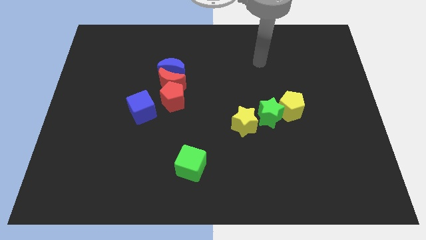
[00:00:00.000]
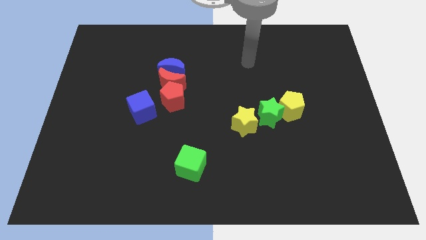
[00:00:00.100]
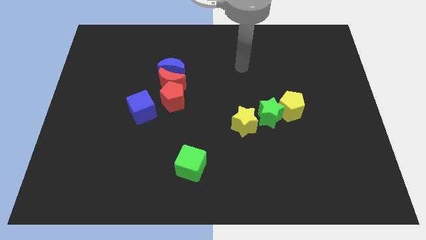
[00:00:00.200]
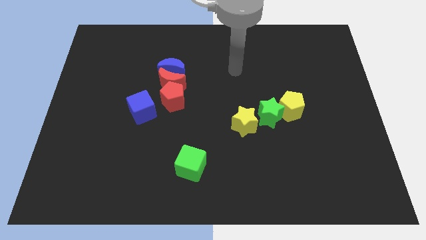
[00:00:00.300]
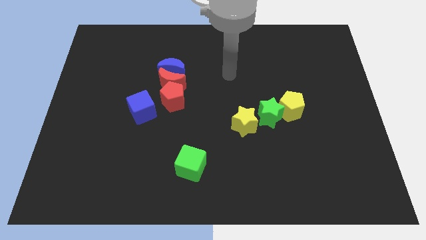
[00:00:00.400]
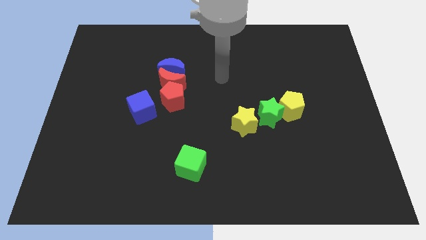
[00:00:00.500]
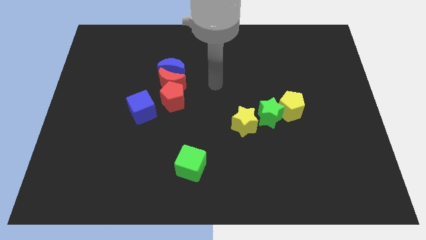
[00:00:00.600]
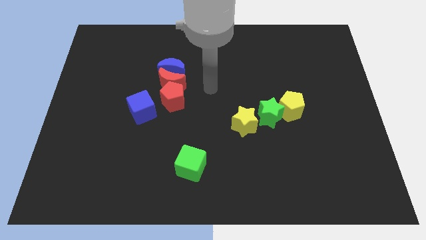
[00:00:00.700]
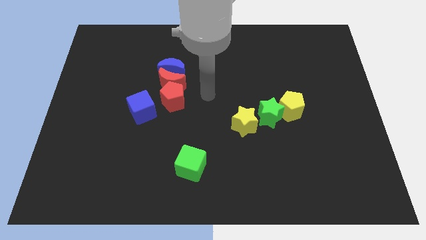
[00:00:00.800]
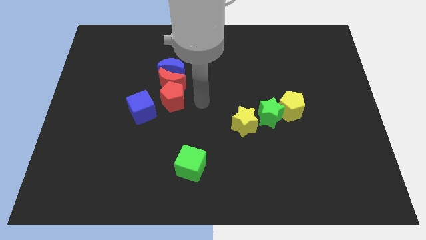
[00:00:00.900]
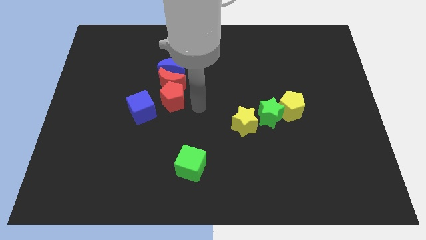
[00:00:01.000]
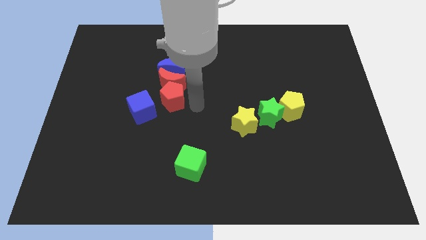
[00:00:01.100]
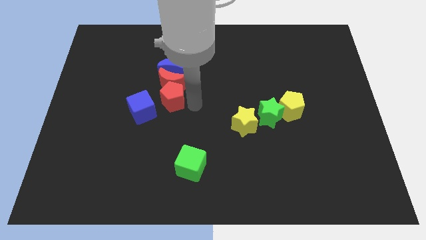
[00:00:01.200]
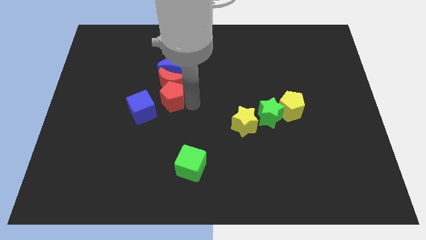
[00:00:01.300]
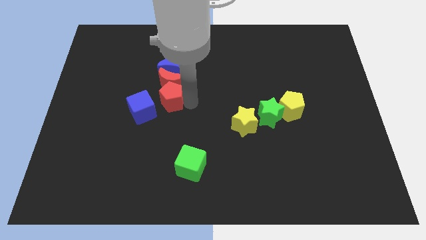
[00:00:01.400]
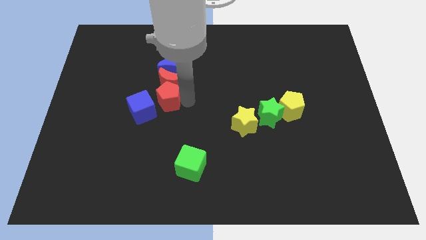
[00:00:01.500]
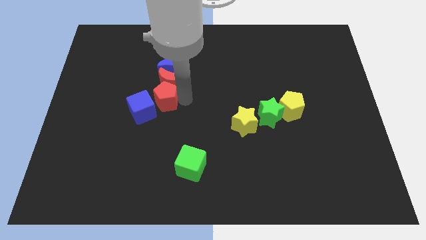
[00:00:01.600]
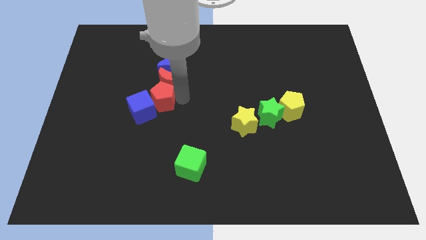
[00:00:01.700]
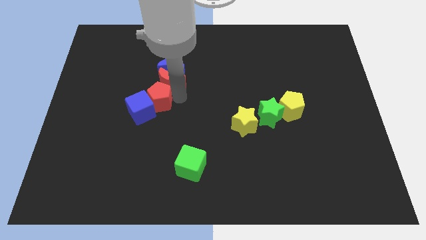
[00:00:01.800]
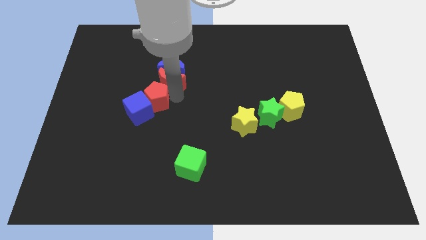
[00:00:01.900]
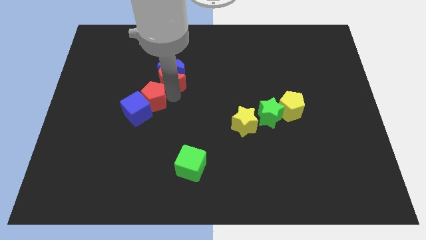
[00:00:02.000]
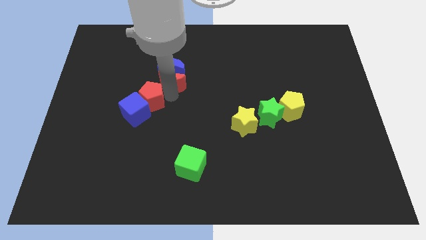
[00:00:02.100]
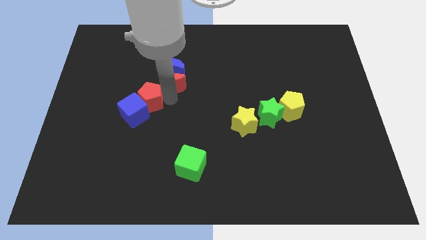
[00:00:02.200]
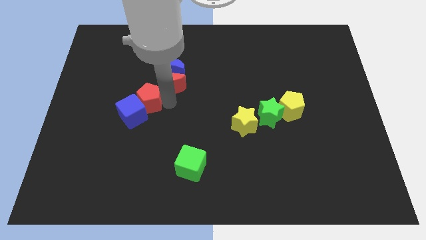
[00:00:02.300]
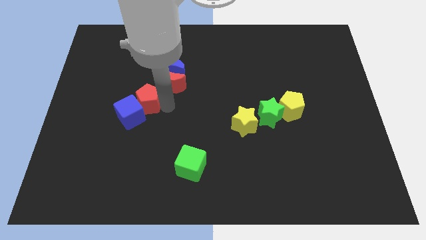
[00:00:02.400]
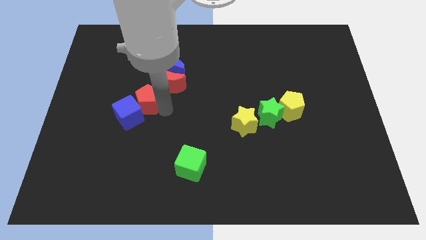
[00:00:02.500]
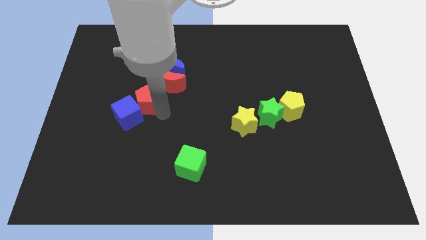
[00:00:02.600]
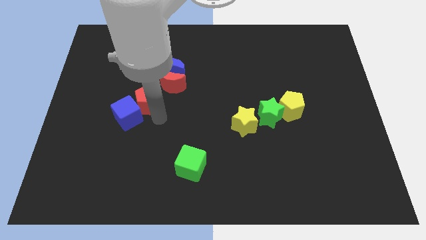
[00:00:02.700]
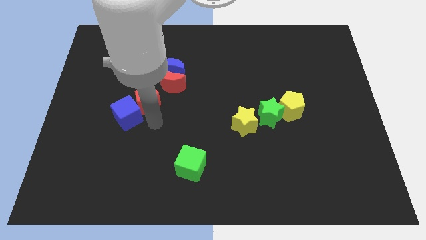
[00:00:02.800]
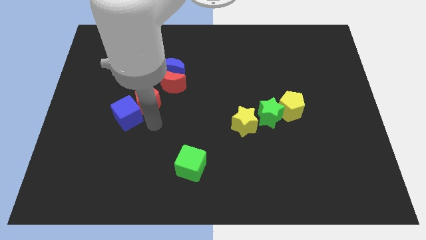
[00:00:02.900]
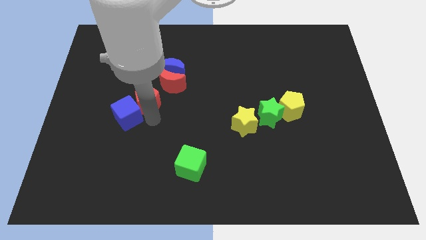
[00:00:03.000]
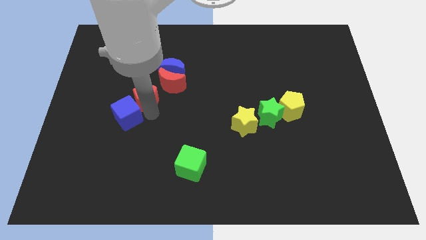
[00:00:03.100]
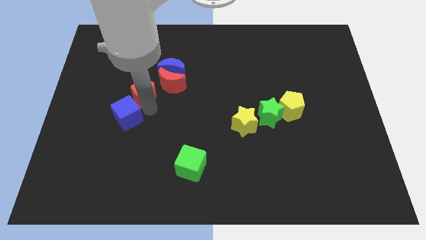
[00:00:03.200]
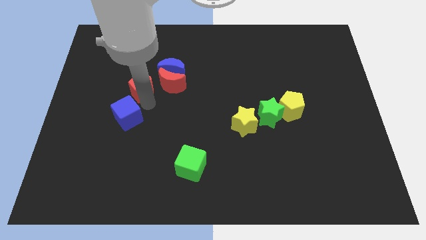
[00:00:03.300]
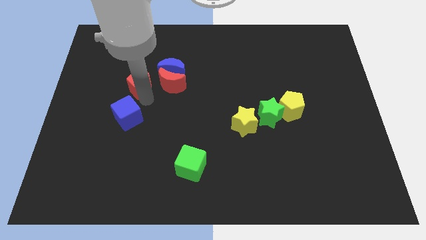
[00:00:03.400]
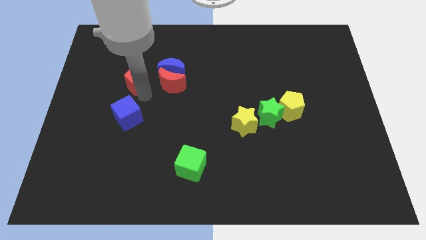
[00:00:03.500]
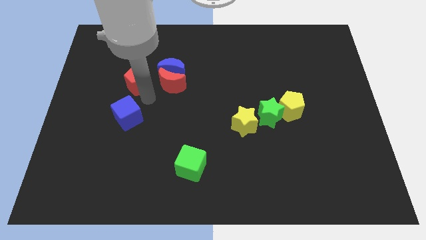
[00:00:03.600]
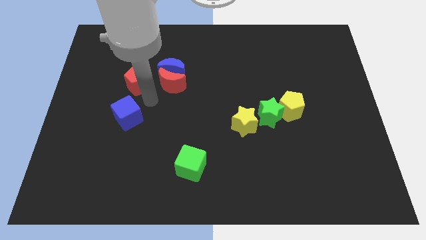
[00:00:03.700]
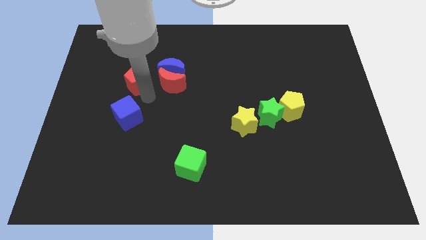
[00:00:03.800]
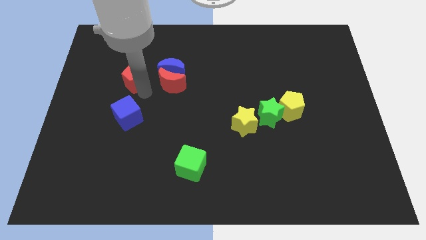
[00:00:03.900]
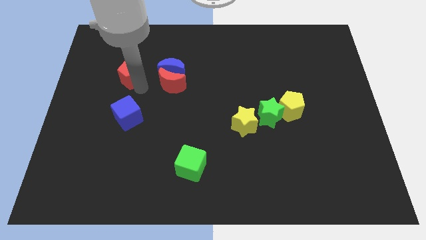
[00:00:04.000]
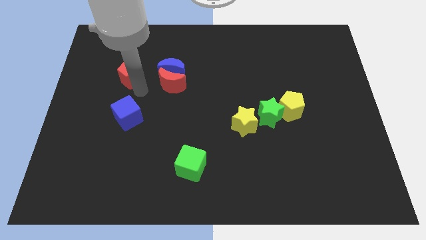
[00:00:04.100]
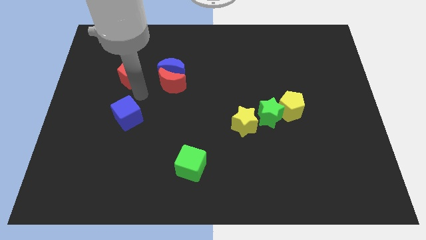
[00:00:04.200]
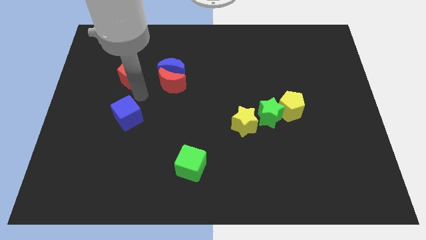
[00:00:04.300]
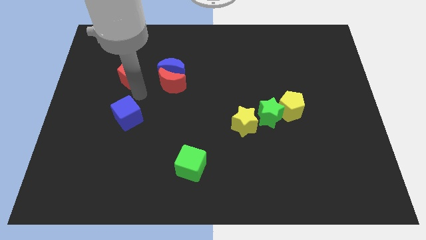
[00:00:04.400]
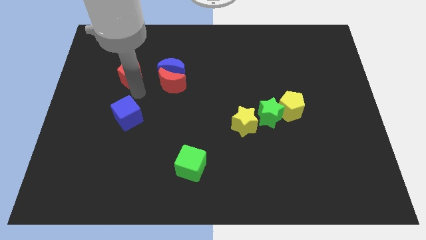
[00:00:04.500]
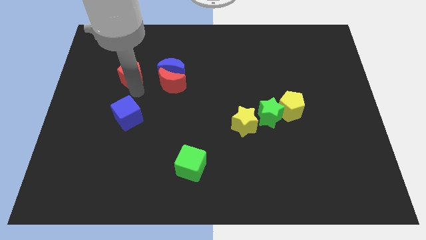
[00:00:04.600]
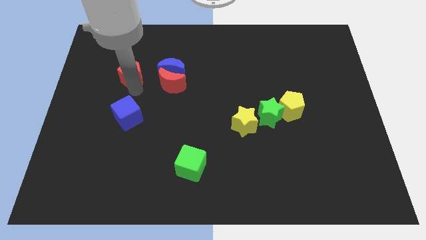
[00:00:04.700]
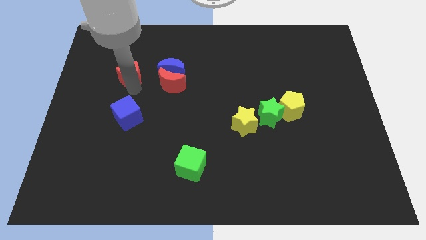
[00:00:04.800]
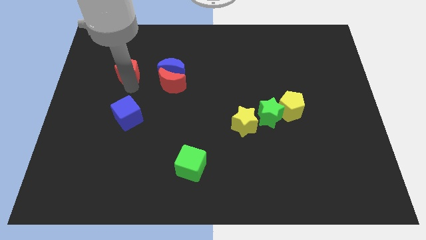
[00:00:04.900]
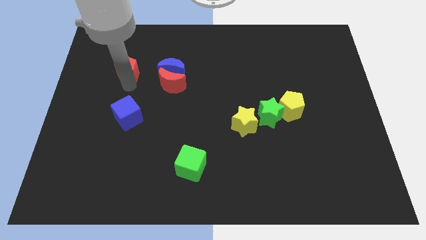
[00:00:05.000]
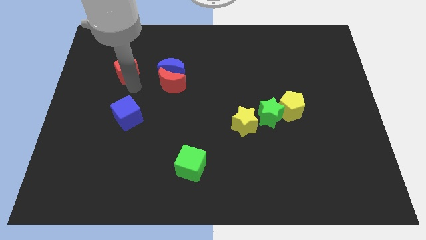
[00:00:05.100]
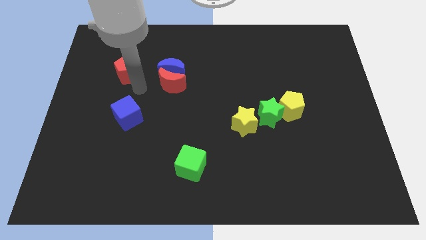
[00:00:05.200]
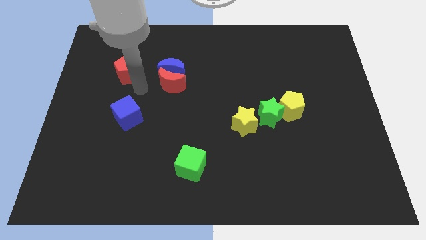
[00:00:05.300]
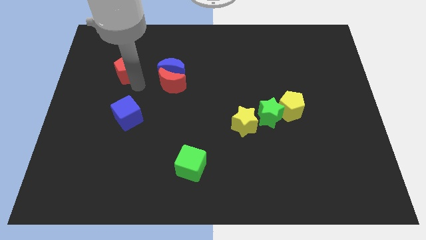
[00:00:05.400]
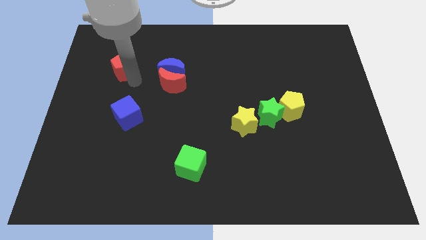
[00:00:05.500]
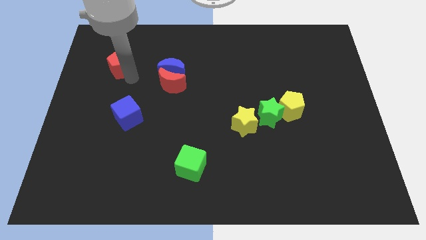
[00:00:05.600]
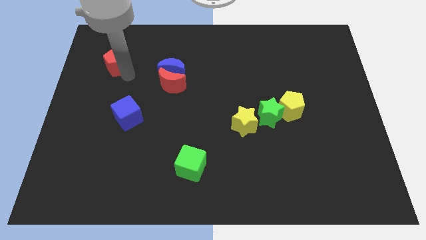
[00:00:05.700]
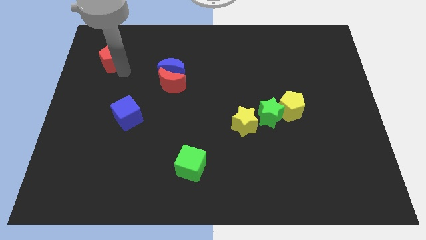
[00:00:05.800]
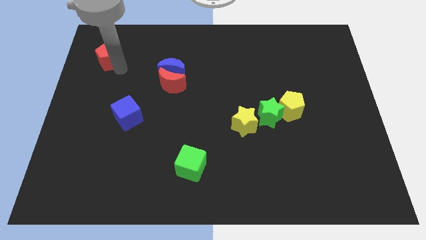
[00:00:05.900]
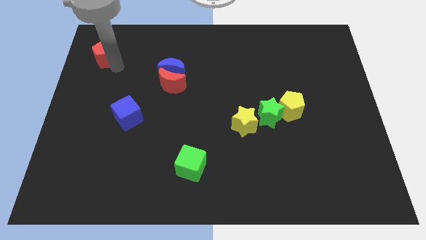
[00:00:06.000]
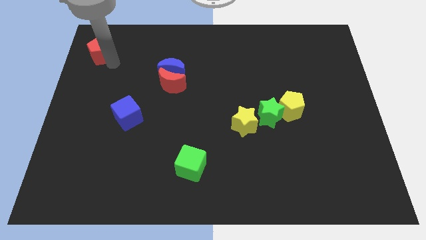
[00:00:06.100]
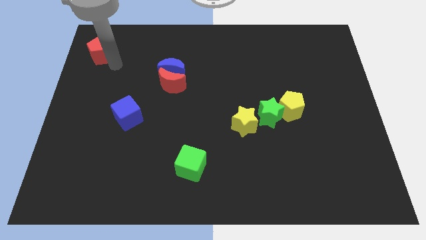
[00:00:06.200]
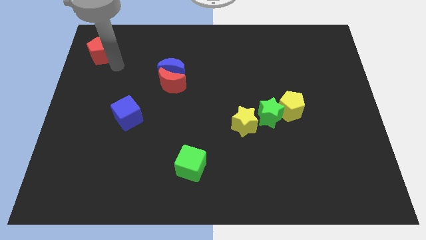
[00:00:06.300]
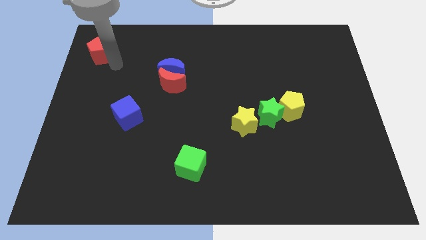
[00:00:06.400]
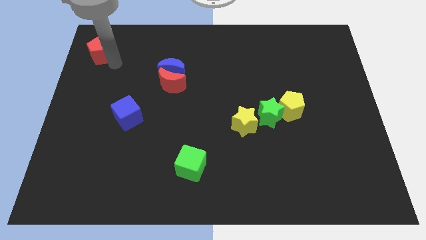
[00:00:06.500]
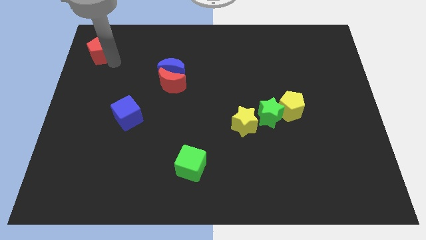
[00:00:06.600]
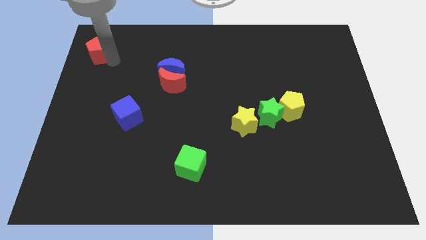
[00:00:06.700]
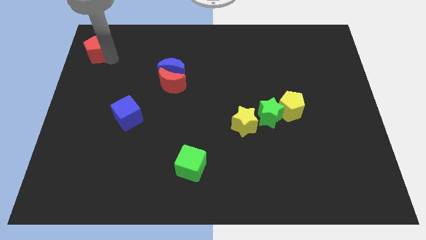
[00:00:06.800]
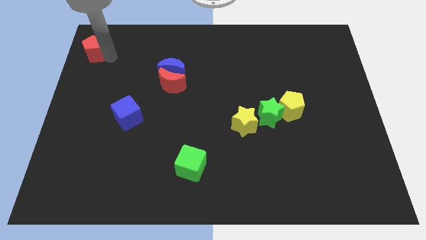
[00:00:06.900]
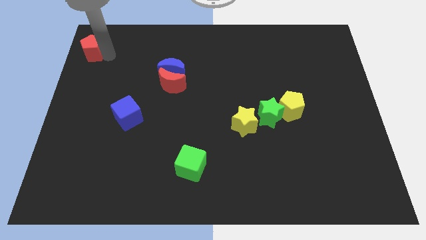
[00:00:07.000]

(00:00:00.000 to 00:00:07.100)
slide the red pentagon to the upper left corner

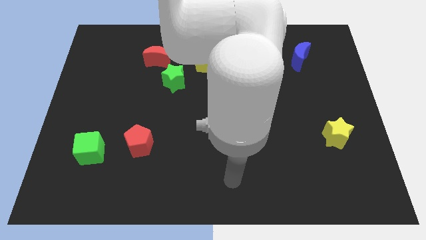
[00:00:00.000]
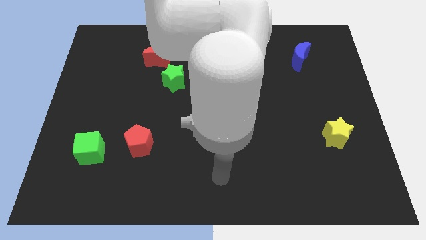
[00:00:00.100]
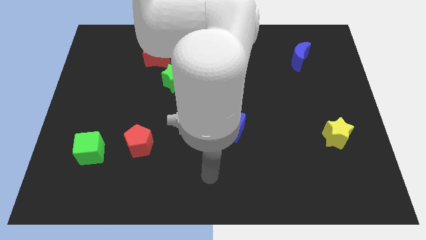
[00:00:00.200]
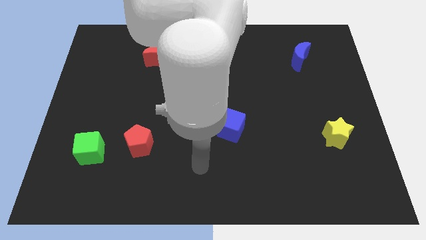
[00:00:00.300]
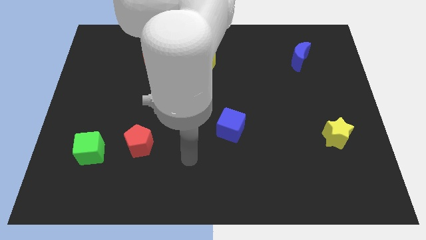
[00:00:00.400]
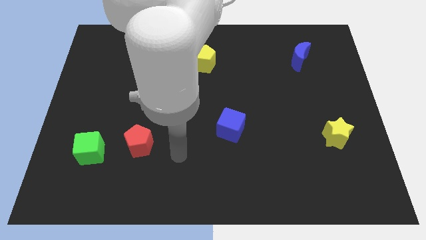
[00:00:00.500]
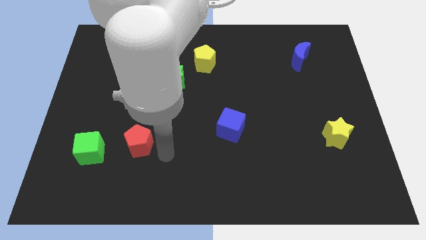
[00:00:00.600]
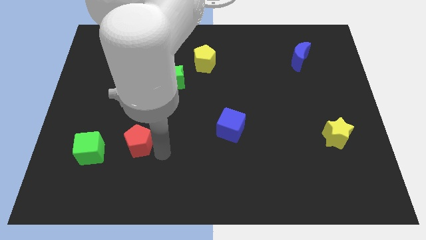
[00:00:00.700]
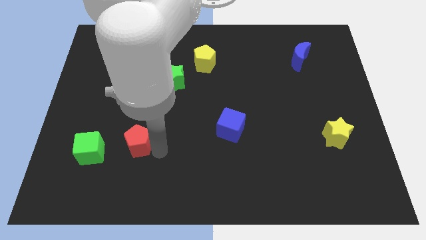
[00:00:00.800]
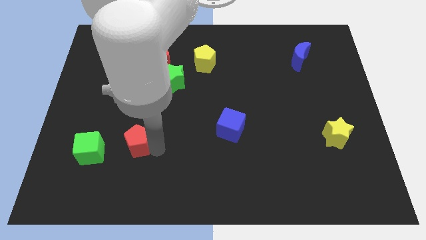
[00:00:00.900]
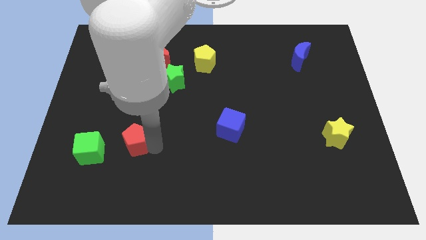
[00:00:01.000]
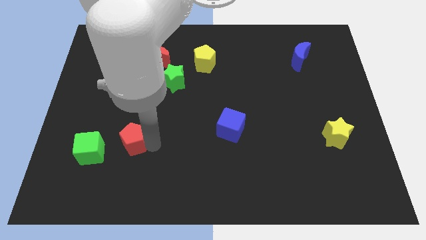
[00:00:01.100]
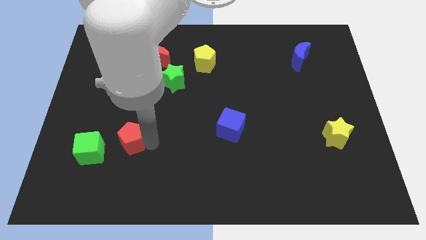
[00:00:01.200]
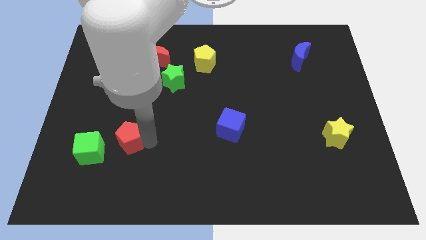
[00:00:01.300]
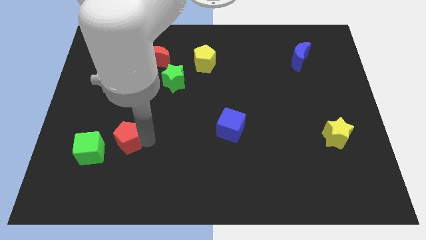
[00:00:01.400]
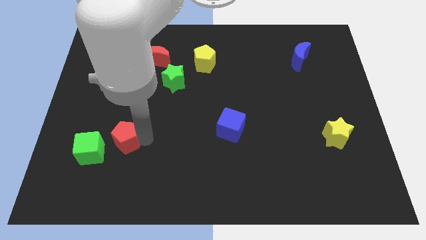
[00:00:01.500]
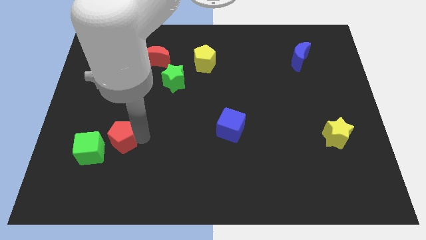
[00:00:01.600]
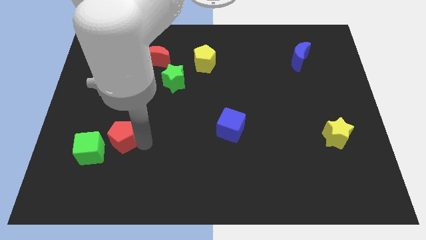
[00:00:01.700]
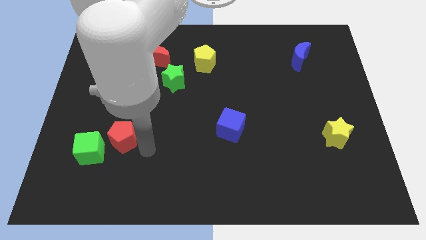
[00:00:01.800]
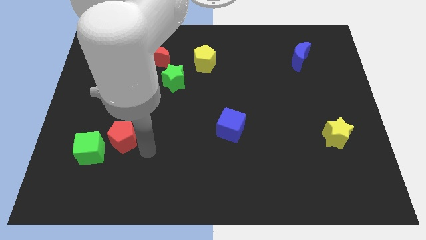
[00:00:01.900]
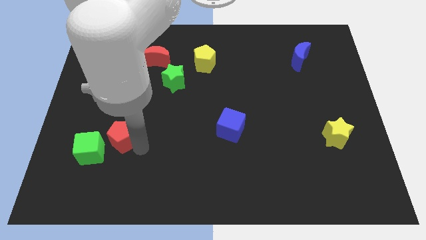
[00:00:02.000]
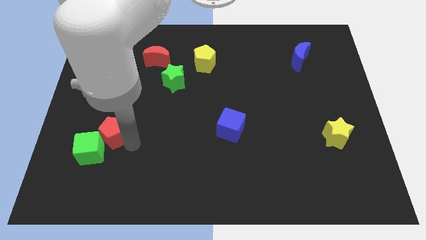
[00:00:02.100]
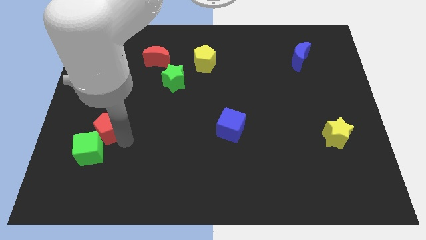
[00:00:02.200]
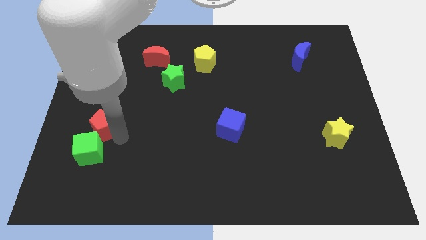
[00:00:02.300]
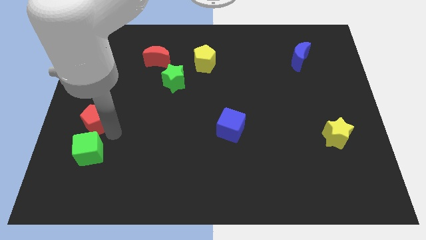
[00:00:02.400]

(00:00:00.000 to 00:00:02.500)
push the red pentagon to the left side
